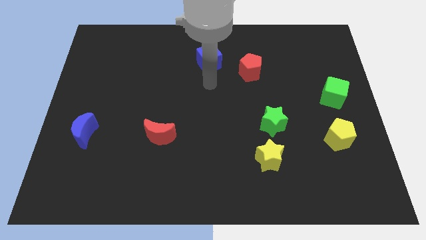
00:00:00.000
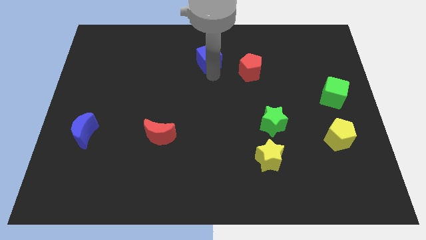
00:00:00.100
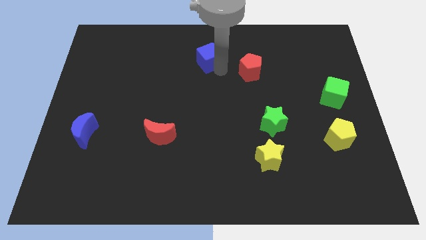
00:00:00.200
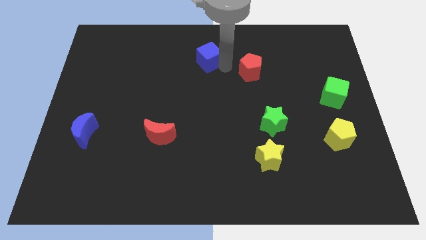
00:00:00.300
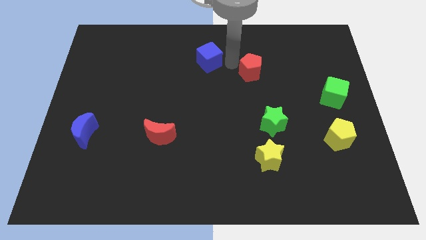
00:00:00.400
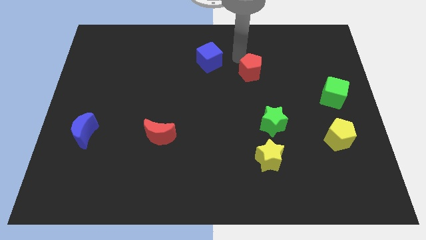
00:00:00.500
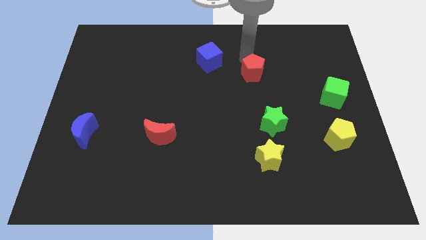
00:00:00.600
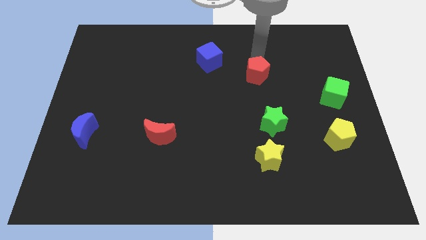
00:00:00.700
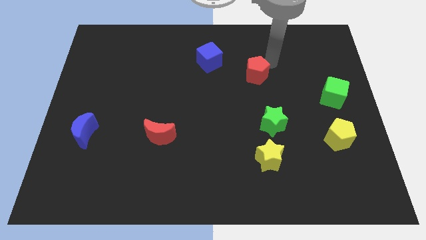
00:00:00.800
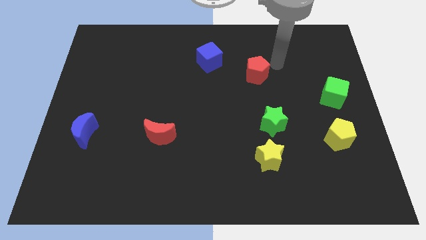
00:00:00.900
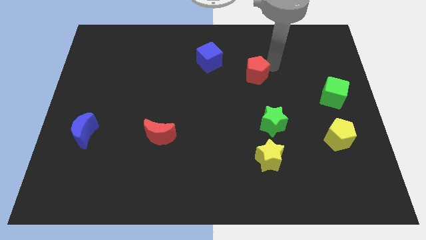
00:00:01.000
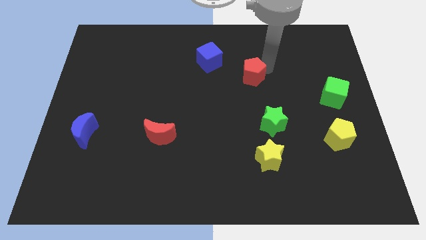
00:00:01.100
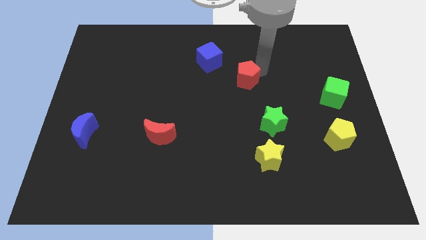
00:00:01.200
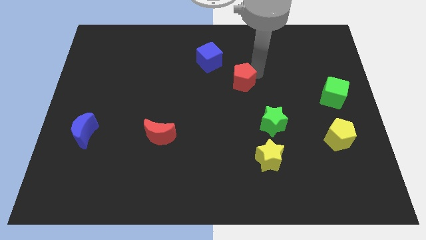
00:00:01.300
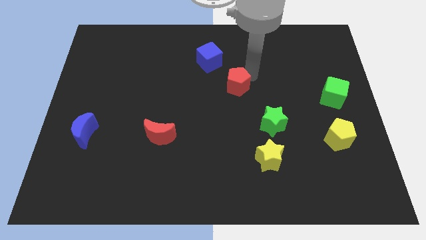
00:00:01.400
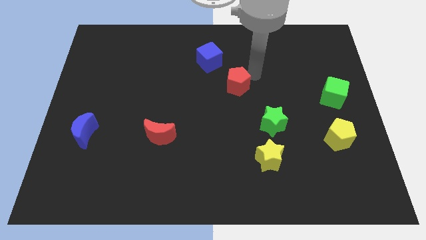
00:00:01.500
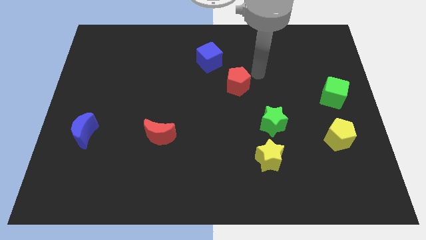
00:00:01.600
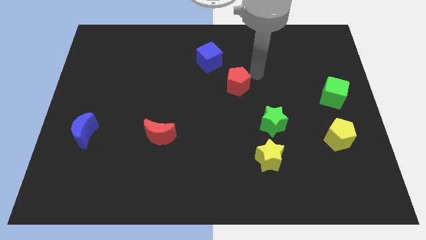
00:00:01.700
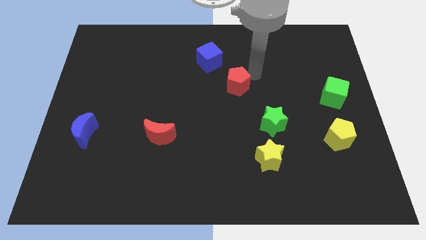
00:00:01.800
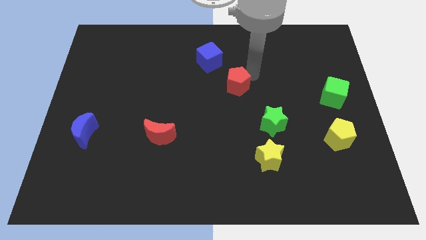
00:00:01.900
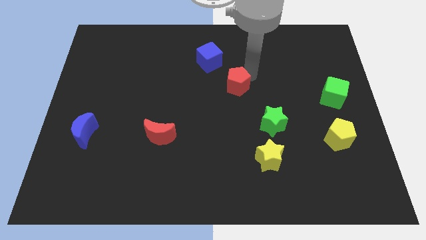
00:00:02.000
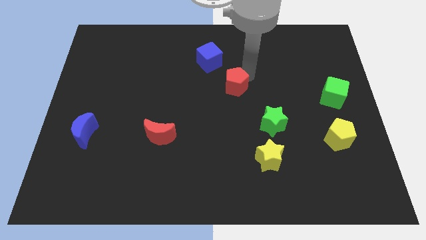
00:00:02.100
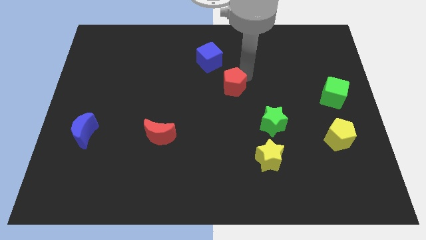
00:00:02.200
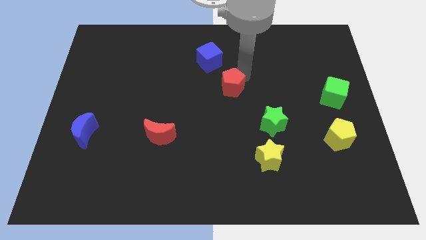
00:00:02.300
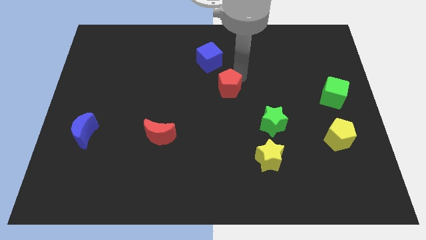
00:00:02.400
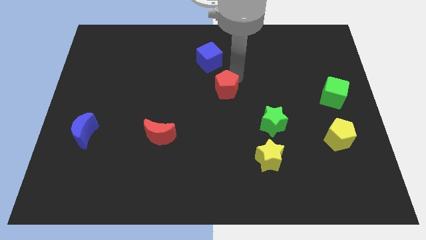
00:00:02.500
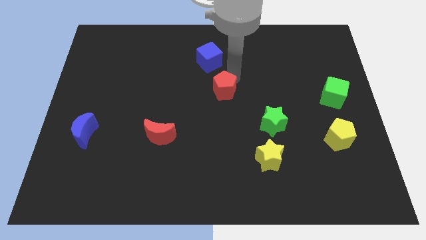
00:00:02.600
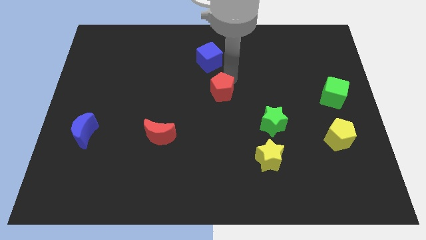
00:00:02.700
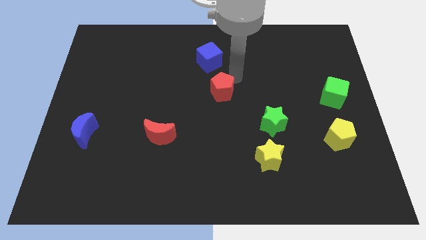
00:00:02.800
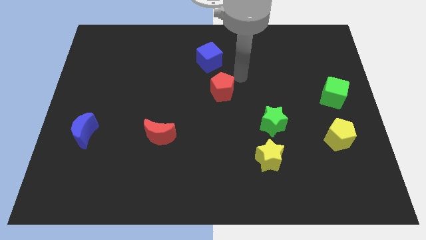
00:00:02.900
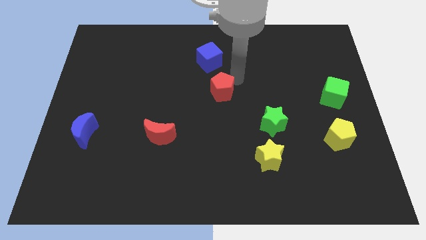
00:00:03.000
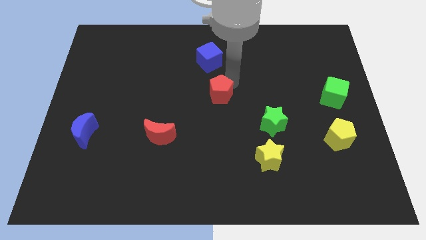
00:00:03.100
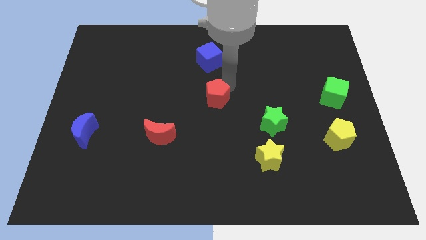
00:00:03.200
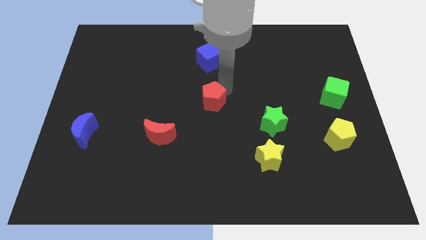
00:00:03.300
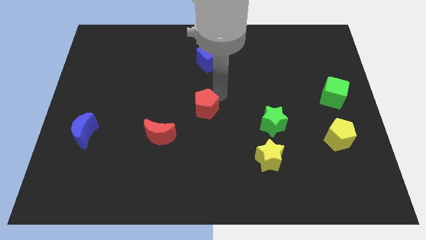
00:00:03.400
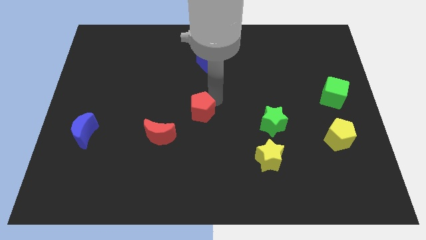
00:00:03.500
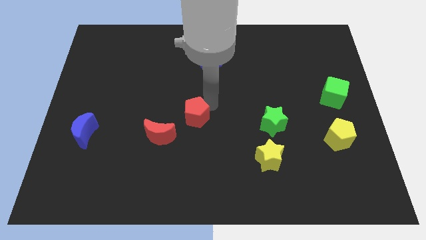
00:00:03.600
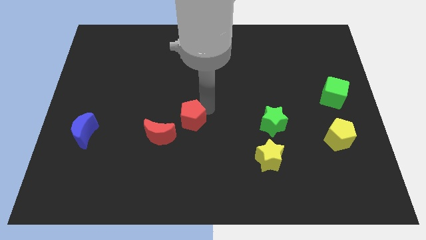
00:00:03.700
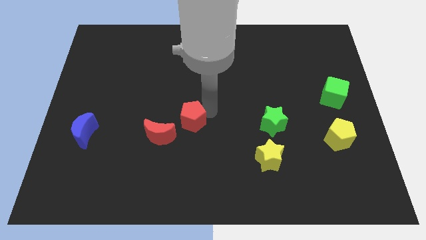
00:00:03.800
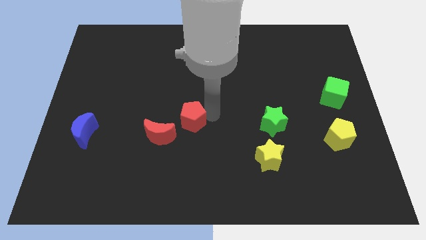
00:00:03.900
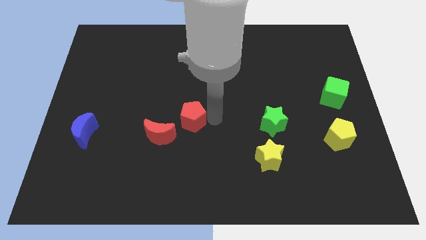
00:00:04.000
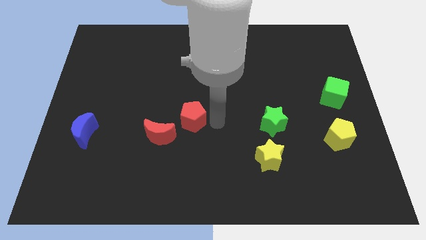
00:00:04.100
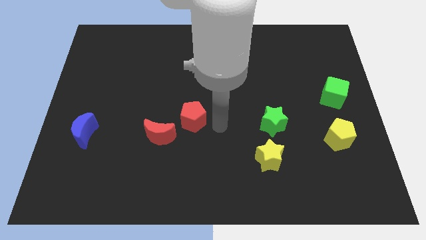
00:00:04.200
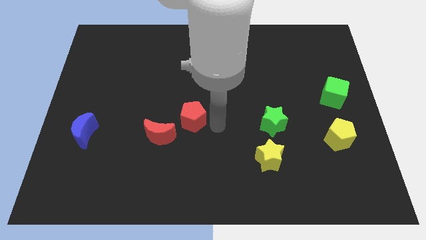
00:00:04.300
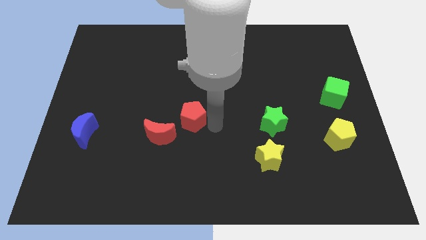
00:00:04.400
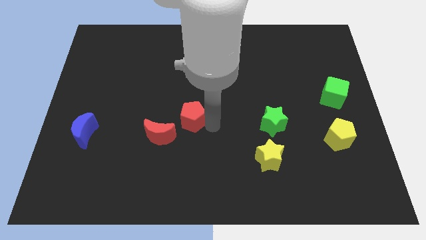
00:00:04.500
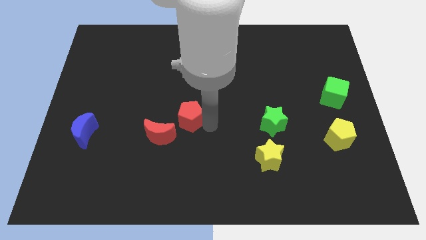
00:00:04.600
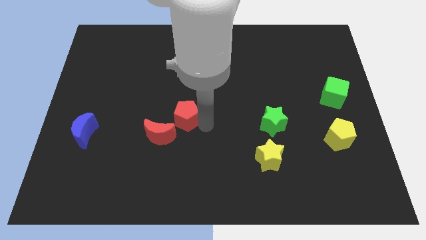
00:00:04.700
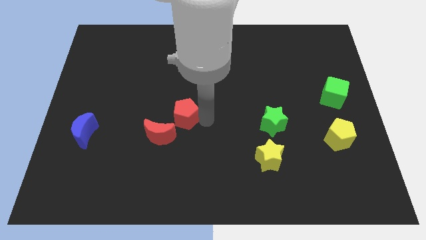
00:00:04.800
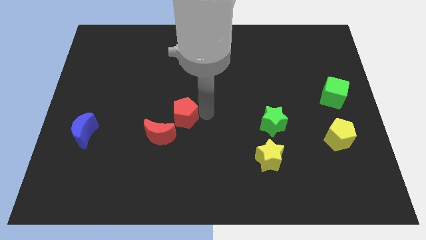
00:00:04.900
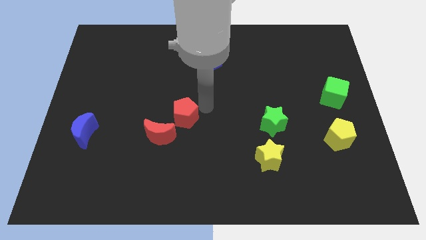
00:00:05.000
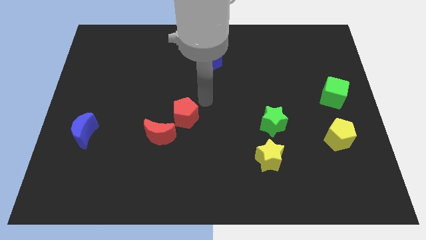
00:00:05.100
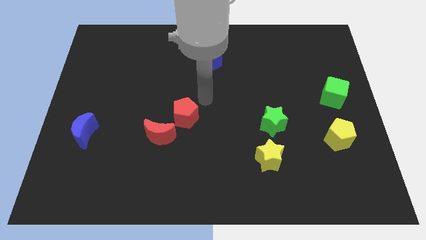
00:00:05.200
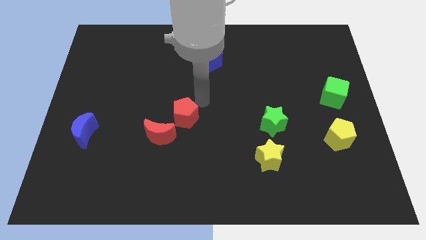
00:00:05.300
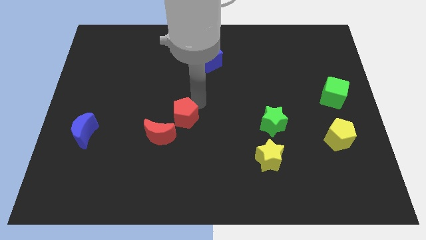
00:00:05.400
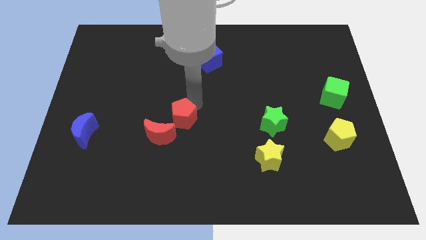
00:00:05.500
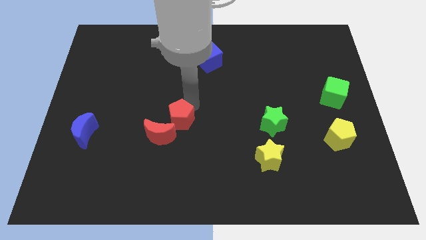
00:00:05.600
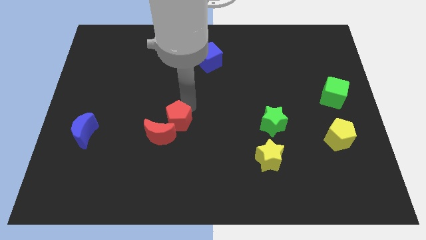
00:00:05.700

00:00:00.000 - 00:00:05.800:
put the red pentagon close to the red moon

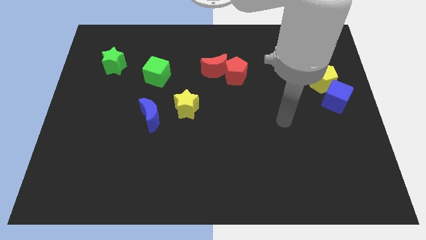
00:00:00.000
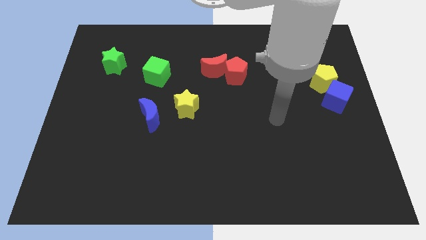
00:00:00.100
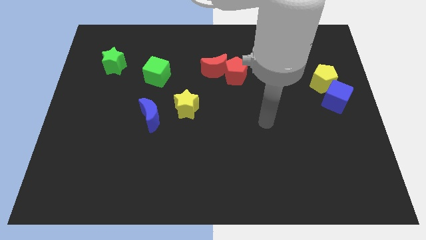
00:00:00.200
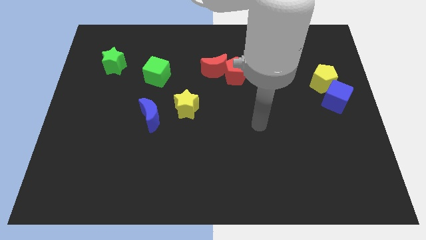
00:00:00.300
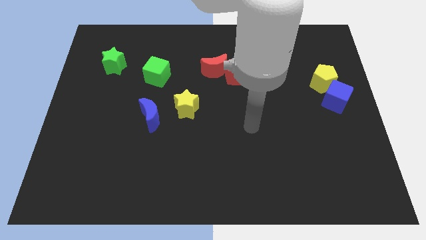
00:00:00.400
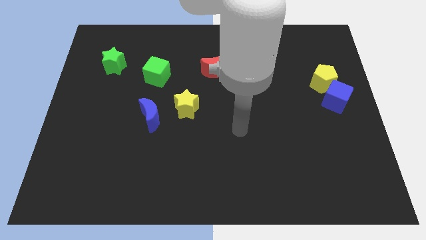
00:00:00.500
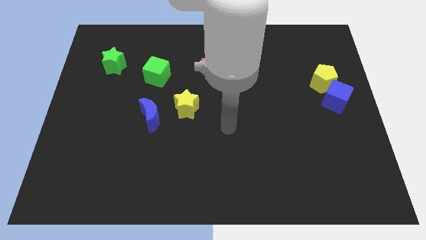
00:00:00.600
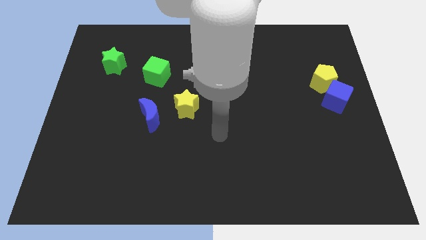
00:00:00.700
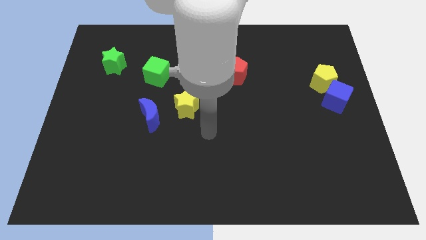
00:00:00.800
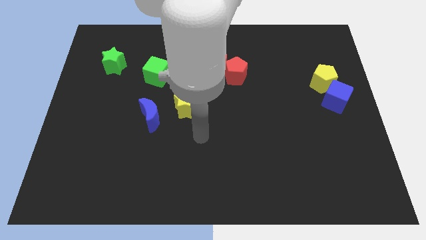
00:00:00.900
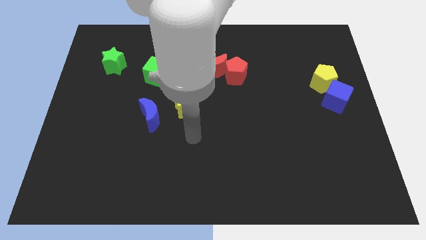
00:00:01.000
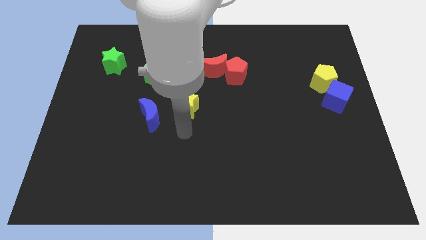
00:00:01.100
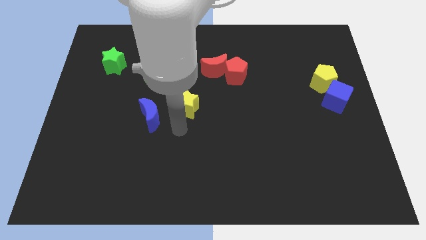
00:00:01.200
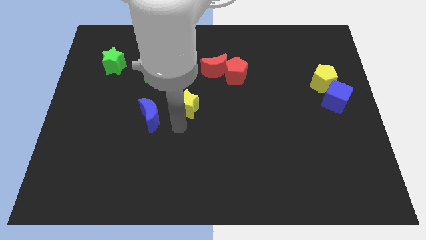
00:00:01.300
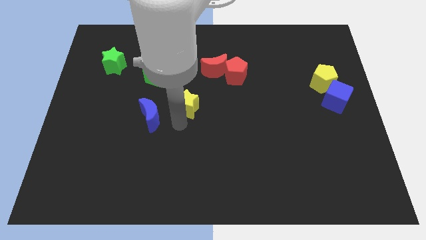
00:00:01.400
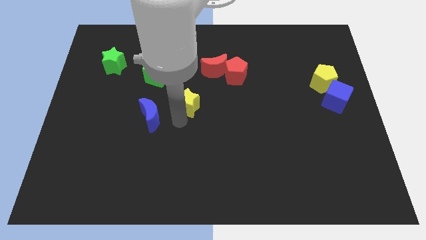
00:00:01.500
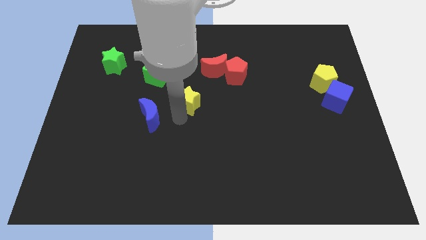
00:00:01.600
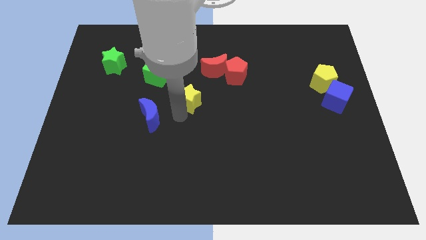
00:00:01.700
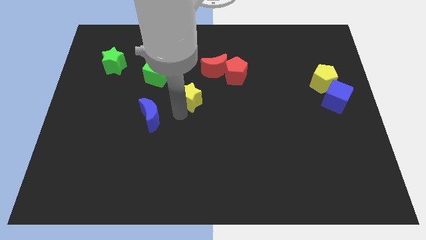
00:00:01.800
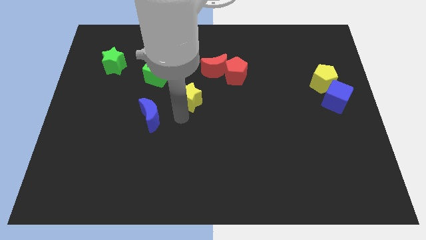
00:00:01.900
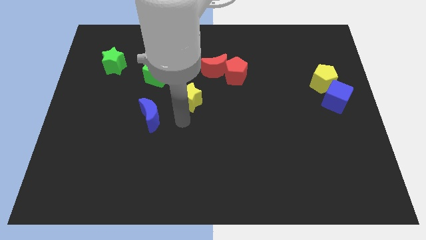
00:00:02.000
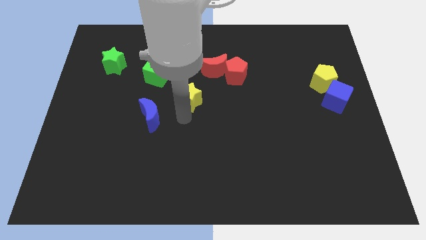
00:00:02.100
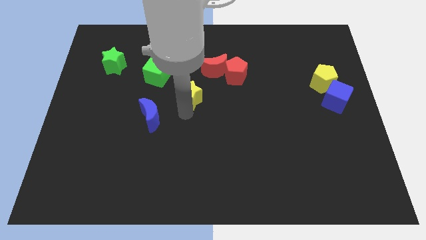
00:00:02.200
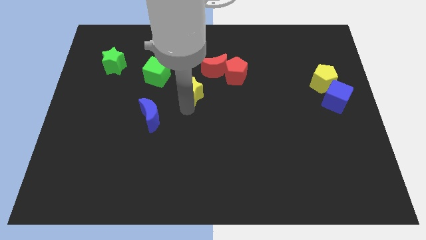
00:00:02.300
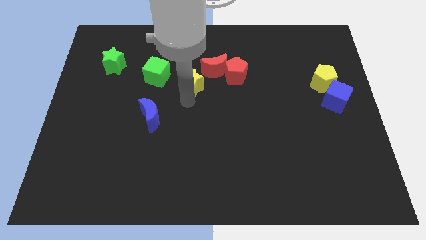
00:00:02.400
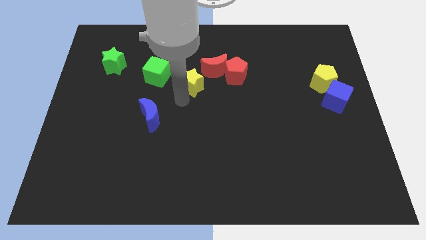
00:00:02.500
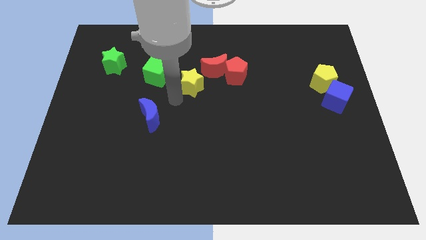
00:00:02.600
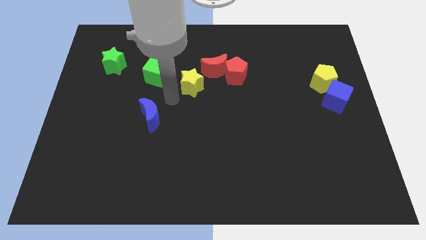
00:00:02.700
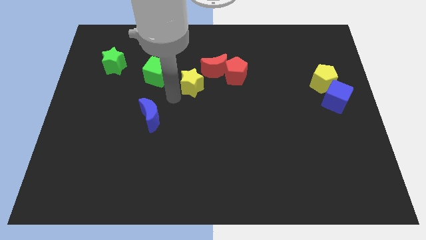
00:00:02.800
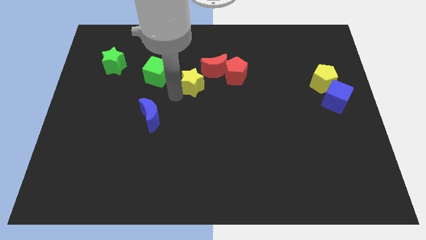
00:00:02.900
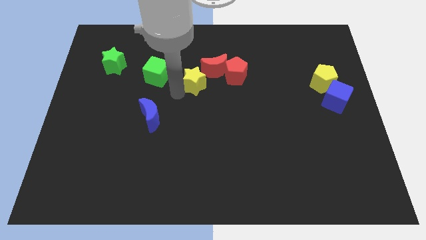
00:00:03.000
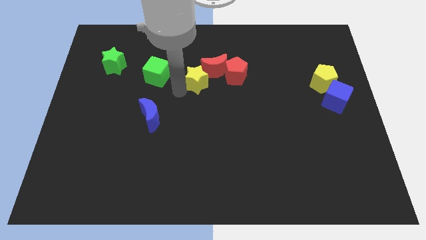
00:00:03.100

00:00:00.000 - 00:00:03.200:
move the yellow star towards the red moon
